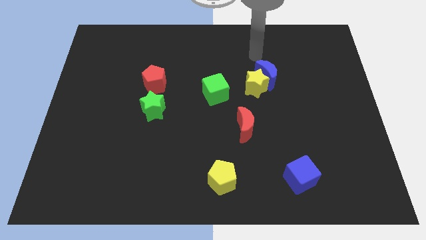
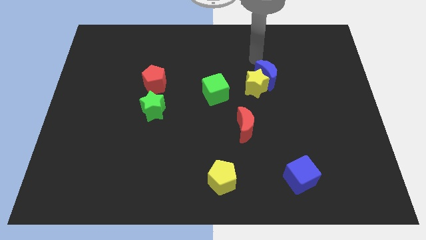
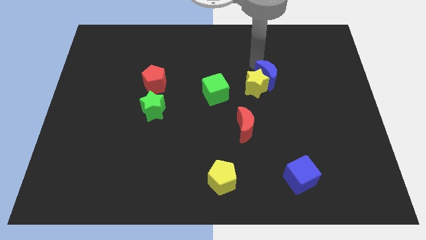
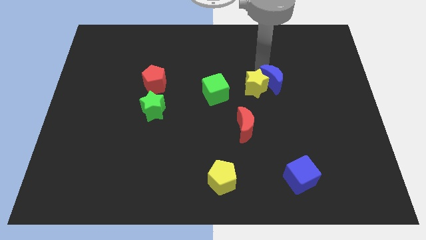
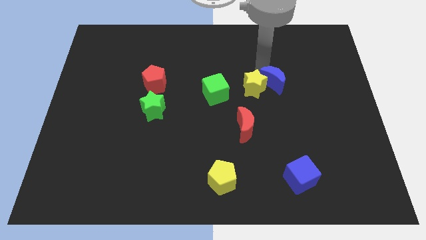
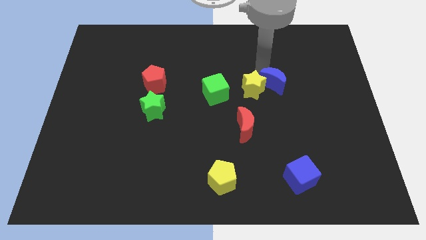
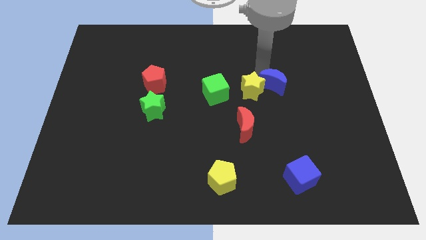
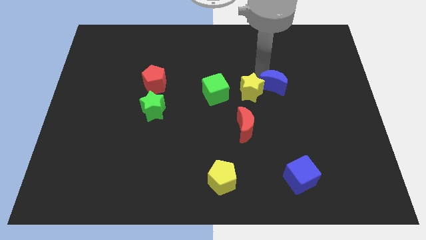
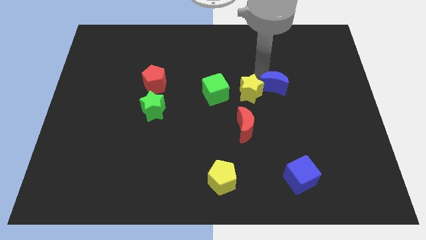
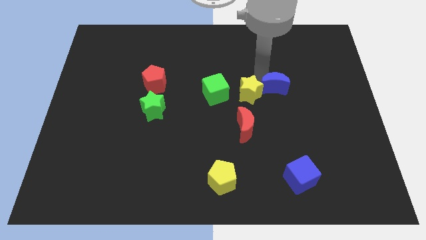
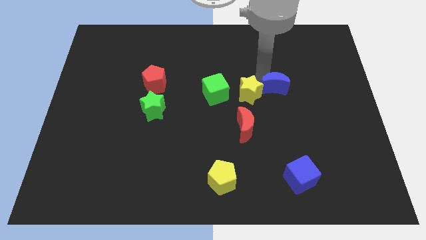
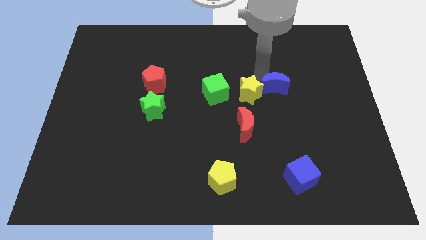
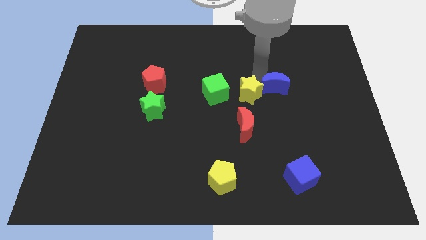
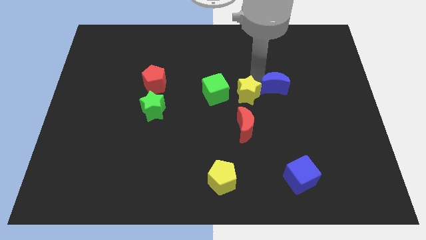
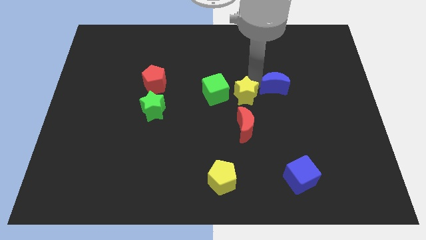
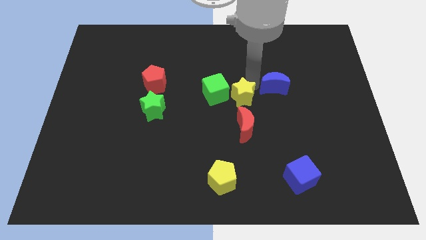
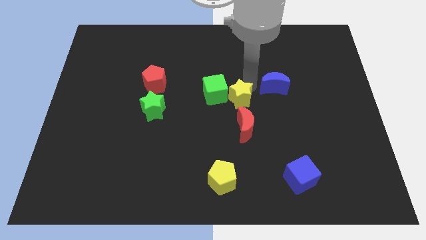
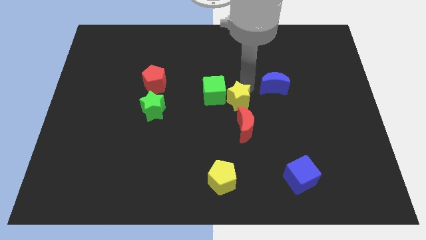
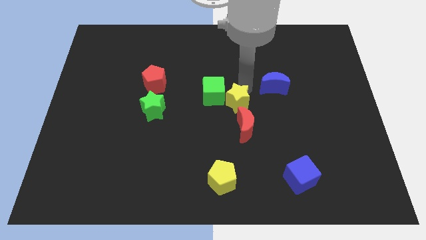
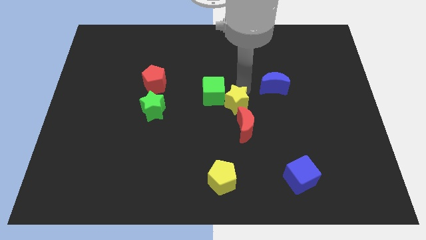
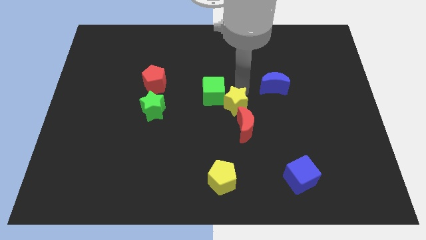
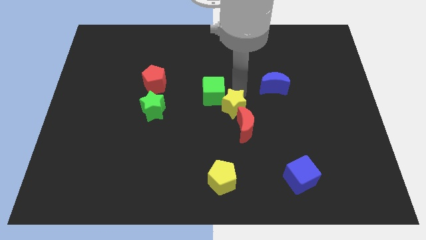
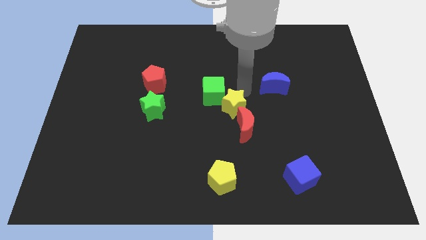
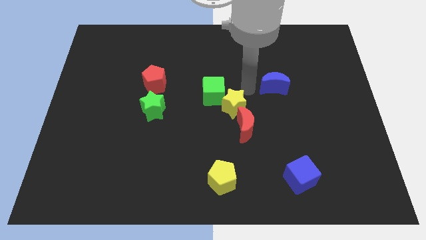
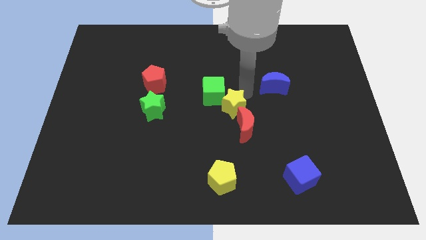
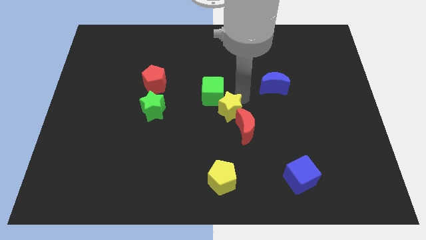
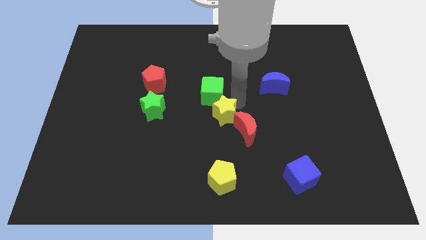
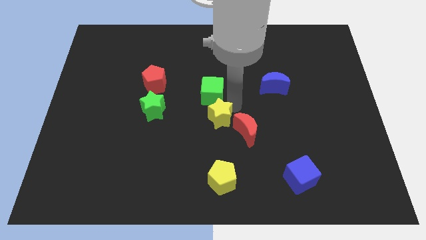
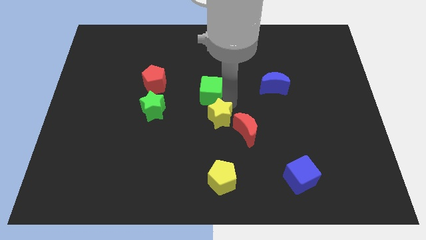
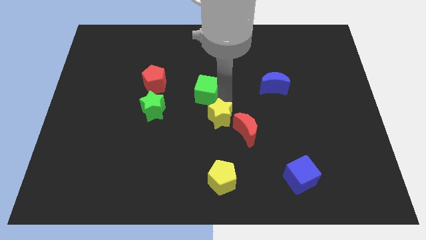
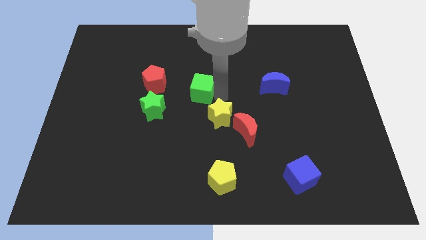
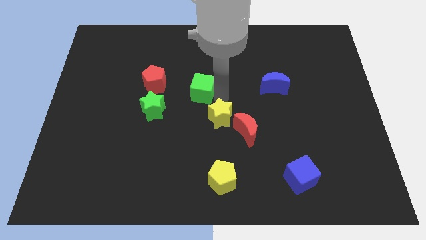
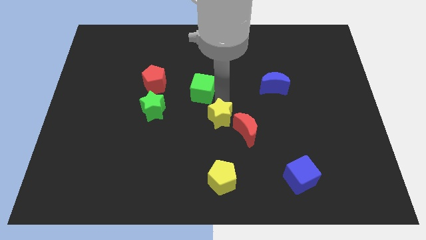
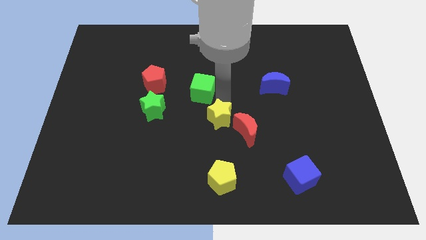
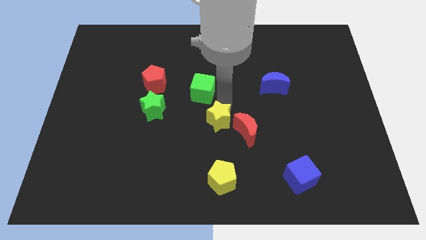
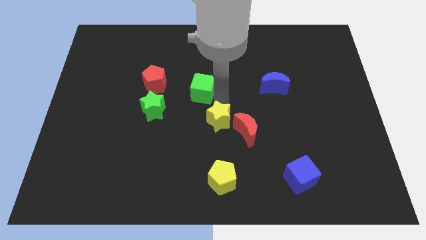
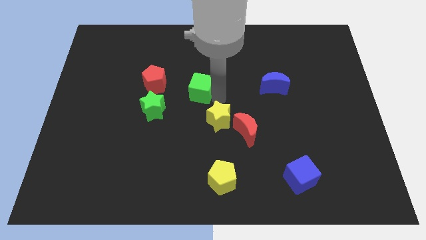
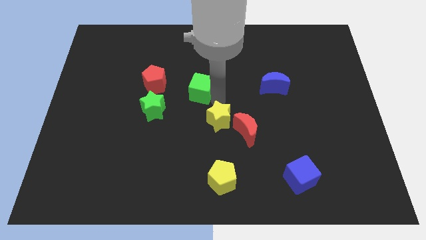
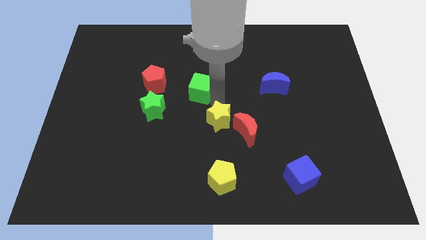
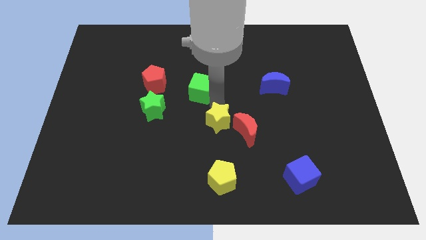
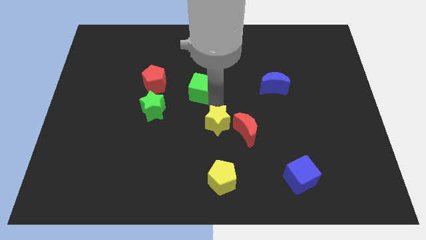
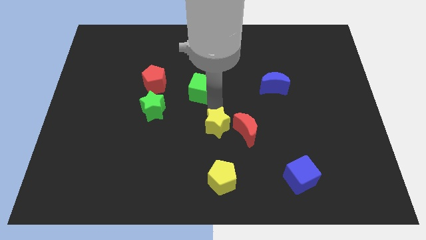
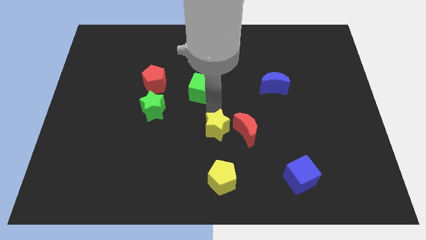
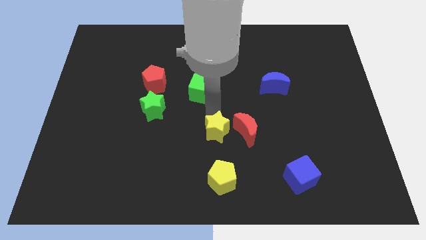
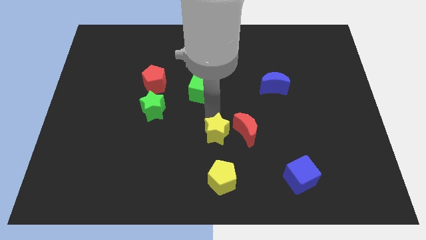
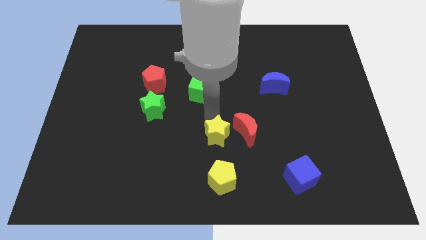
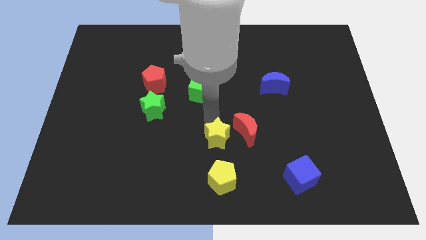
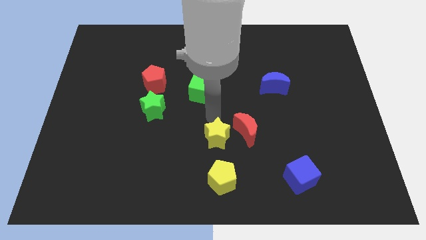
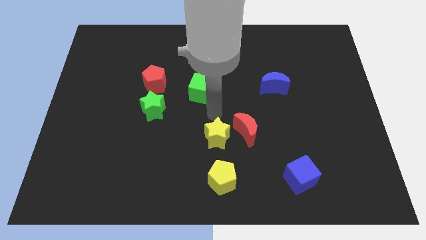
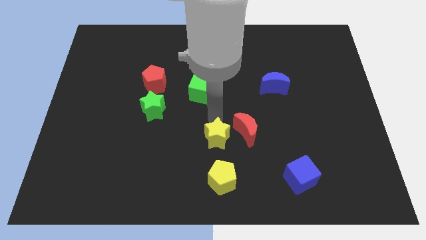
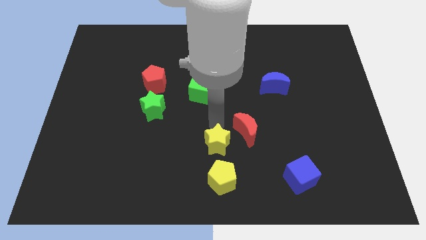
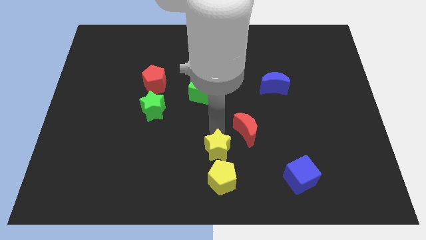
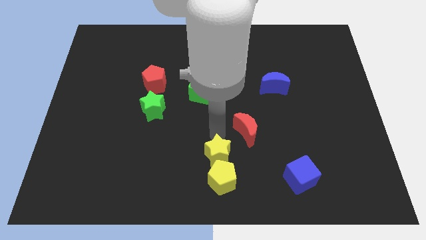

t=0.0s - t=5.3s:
move the yellow star close to the yellow pentagon
